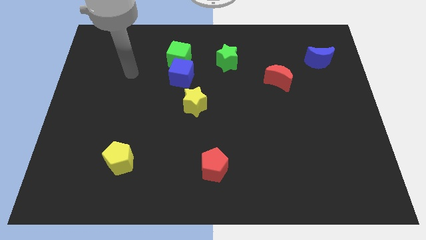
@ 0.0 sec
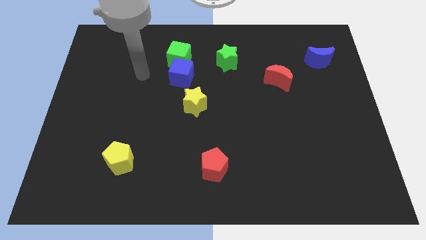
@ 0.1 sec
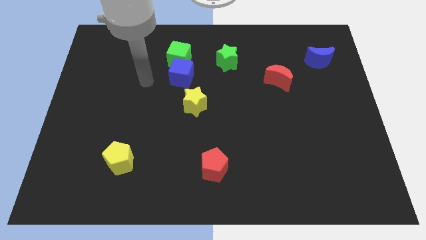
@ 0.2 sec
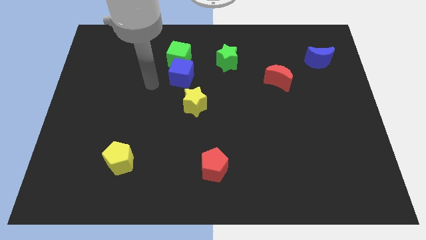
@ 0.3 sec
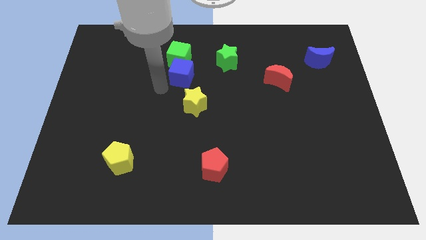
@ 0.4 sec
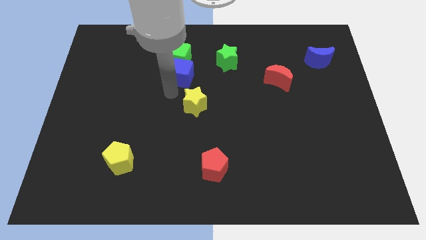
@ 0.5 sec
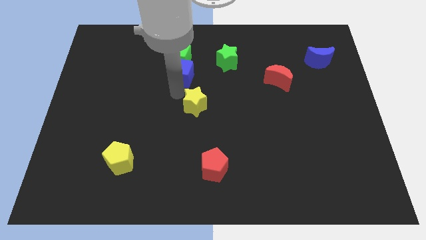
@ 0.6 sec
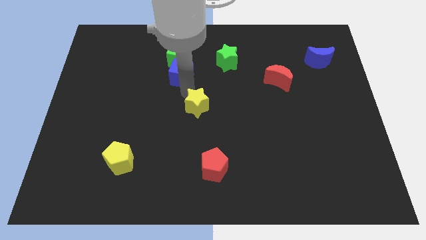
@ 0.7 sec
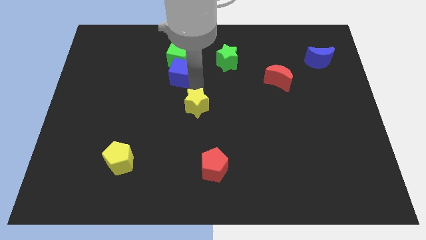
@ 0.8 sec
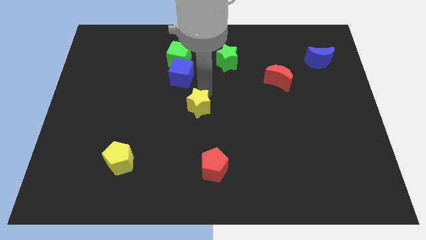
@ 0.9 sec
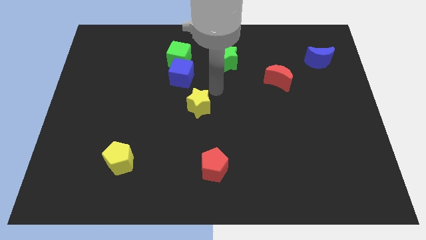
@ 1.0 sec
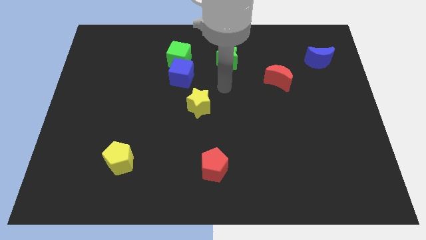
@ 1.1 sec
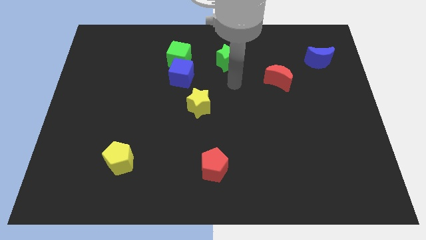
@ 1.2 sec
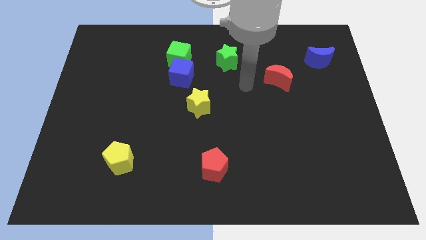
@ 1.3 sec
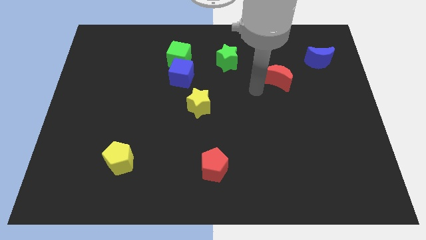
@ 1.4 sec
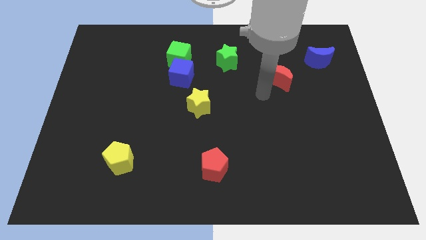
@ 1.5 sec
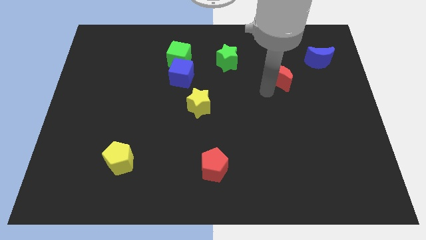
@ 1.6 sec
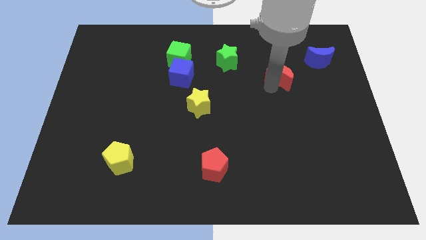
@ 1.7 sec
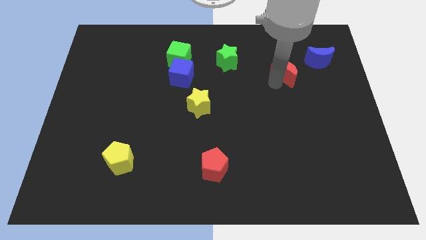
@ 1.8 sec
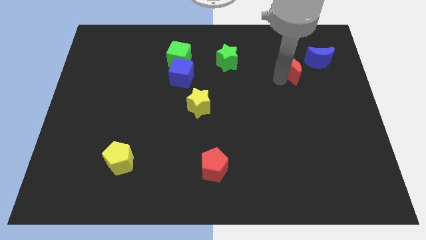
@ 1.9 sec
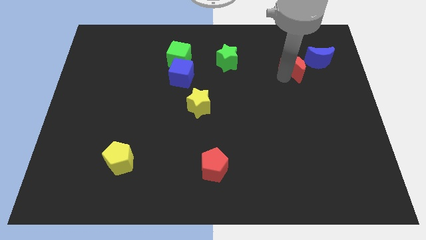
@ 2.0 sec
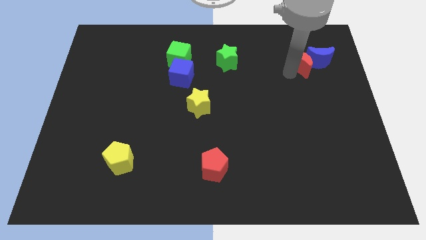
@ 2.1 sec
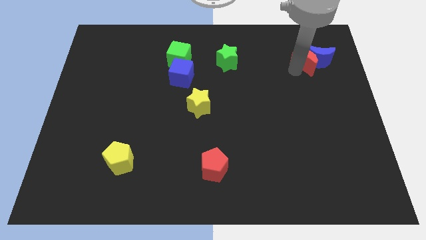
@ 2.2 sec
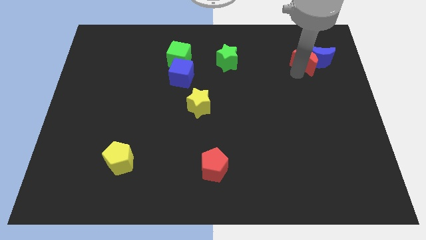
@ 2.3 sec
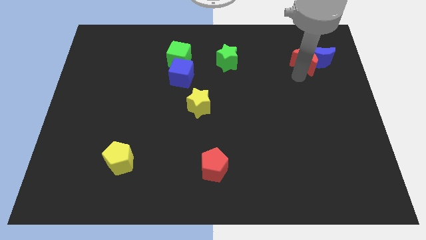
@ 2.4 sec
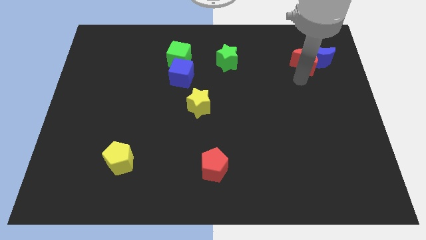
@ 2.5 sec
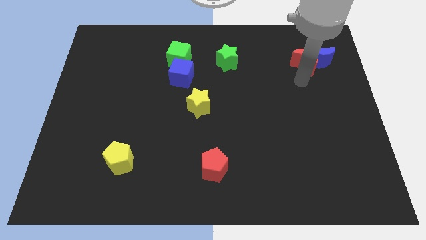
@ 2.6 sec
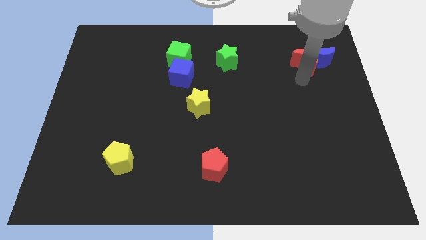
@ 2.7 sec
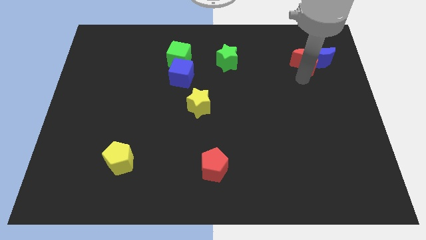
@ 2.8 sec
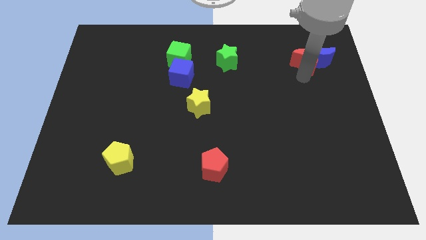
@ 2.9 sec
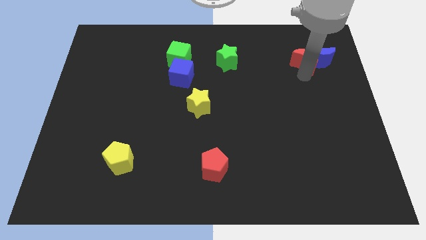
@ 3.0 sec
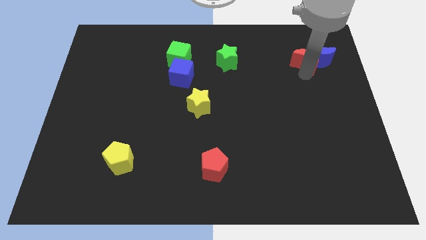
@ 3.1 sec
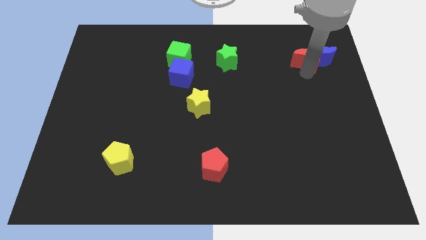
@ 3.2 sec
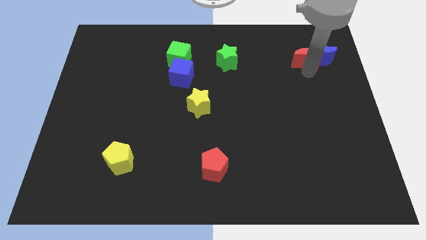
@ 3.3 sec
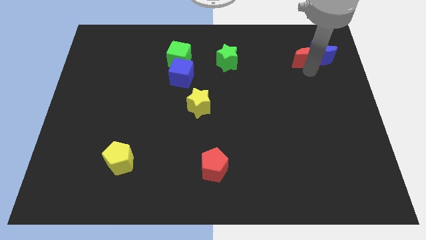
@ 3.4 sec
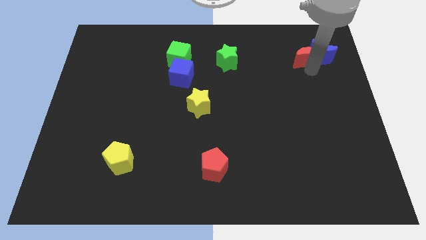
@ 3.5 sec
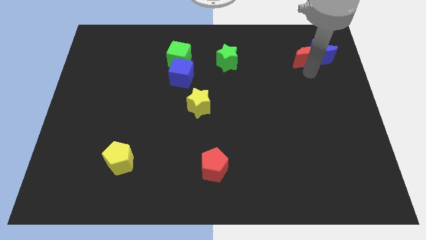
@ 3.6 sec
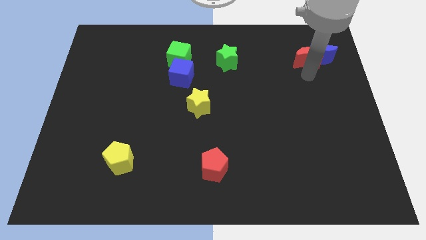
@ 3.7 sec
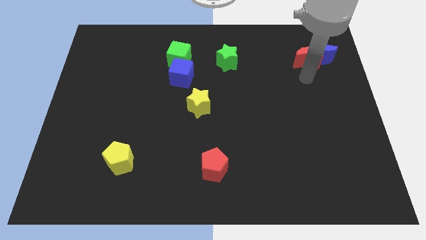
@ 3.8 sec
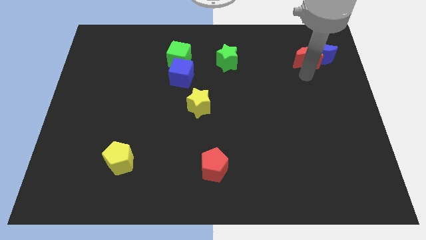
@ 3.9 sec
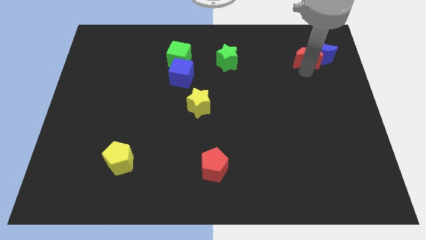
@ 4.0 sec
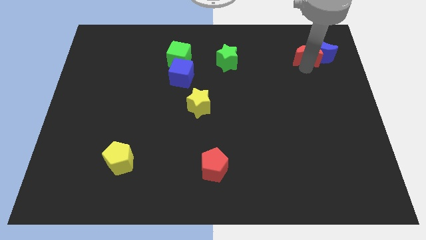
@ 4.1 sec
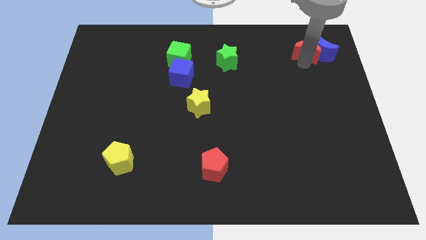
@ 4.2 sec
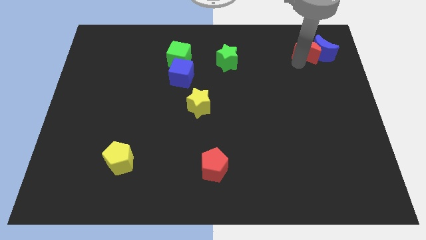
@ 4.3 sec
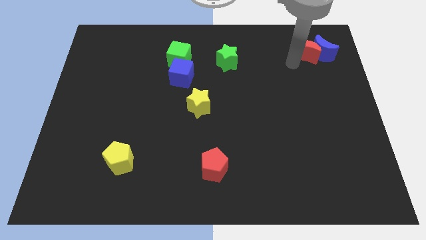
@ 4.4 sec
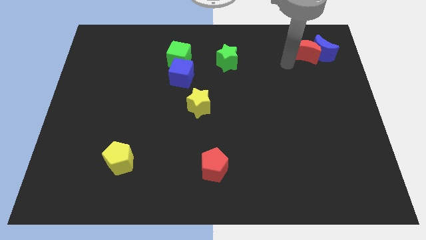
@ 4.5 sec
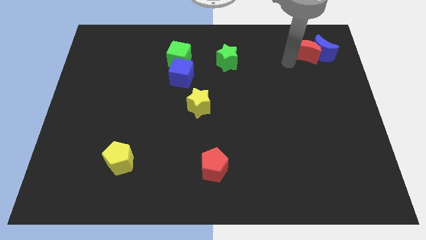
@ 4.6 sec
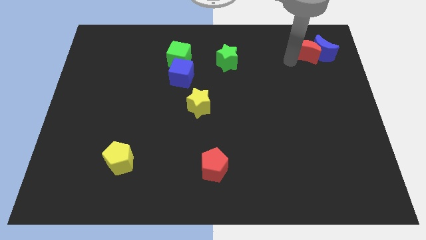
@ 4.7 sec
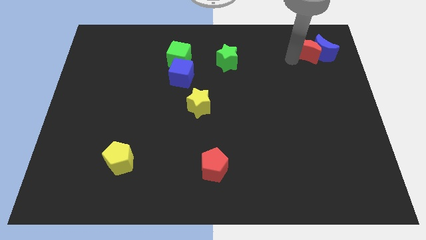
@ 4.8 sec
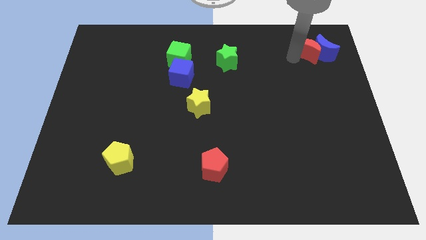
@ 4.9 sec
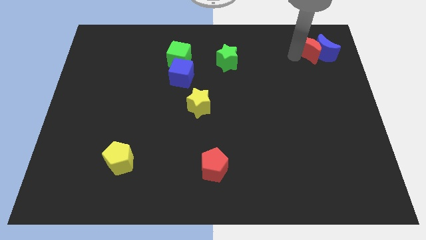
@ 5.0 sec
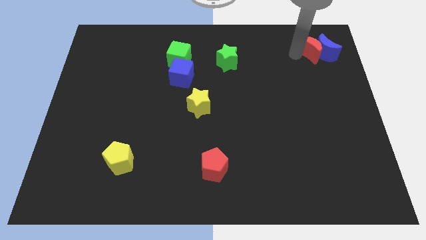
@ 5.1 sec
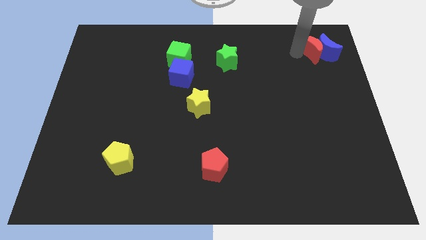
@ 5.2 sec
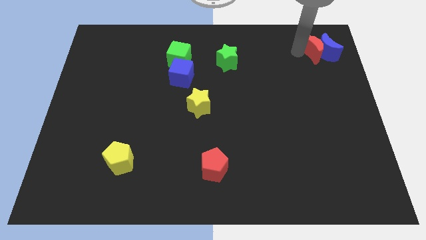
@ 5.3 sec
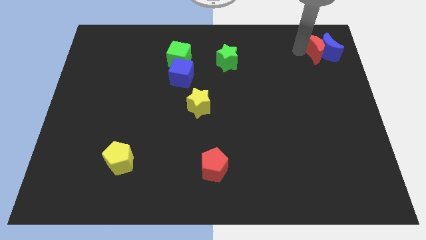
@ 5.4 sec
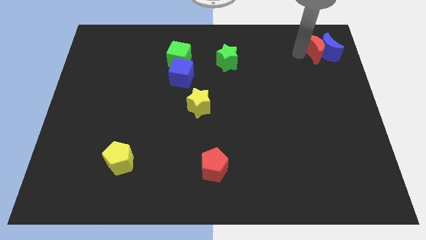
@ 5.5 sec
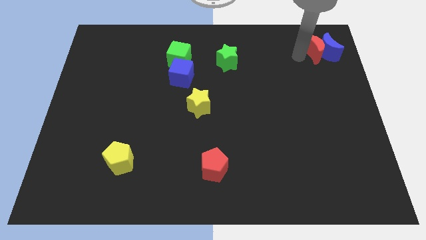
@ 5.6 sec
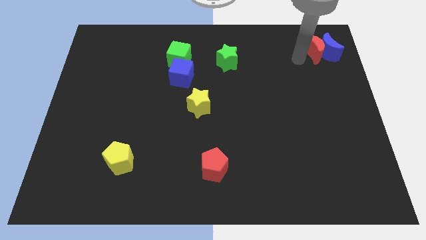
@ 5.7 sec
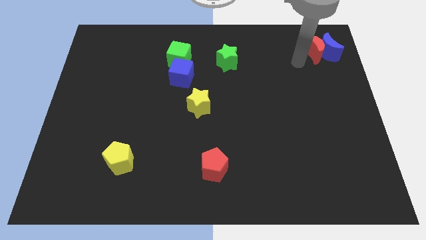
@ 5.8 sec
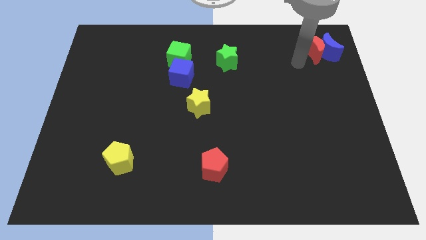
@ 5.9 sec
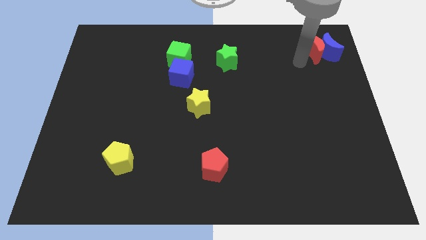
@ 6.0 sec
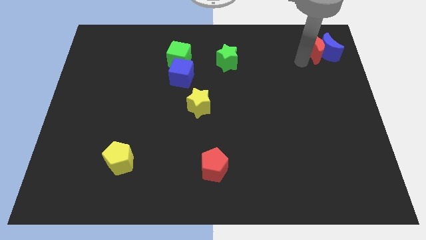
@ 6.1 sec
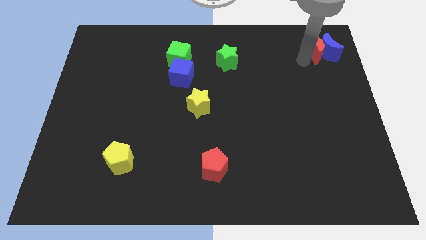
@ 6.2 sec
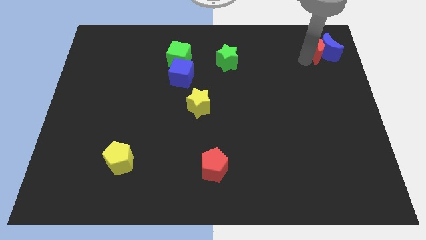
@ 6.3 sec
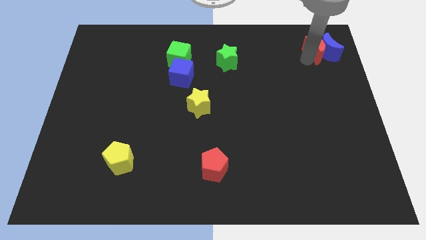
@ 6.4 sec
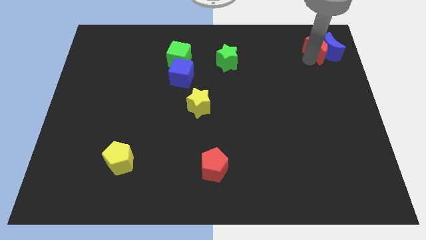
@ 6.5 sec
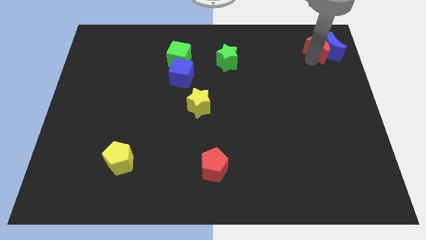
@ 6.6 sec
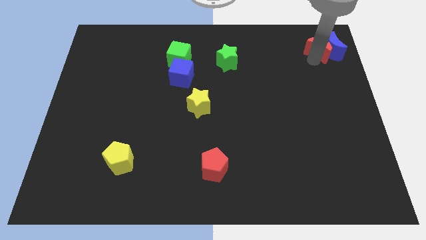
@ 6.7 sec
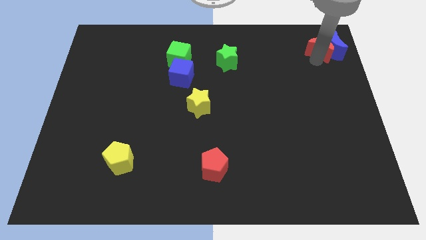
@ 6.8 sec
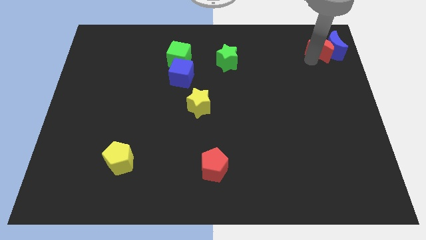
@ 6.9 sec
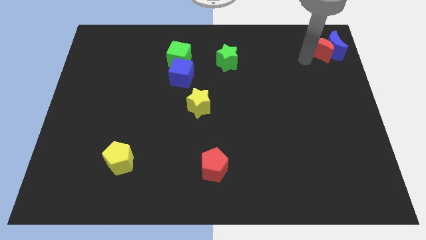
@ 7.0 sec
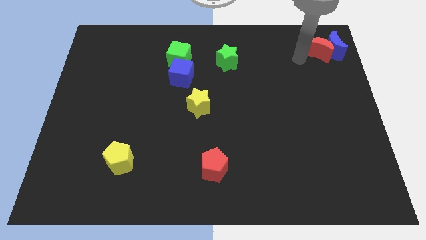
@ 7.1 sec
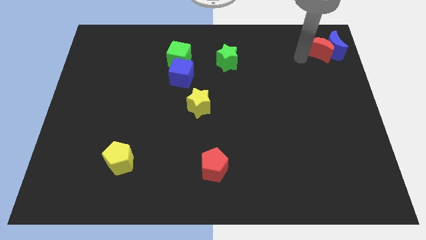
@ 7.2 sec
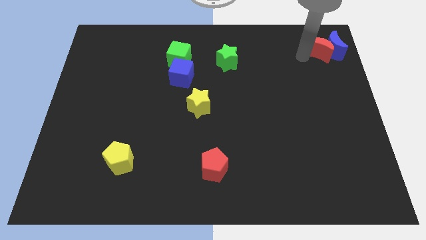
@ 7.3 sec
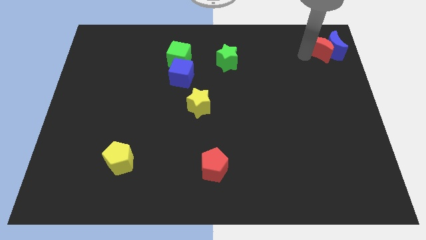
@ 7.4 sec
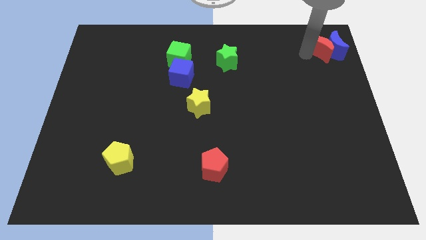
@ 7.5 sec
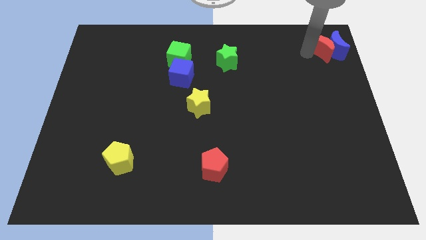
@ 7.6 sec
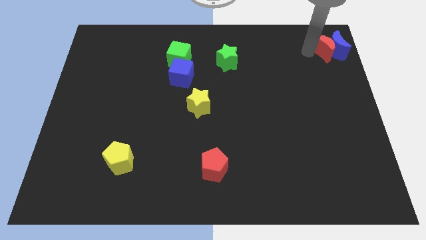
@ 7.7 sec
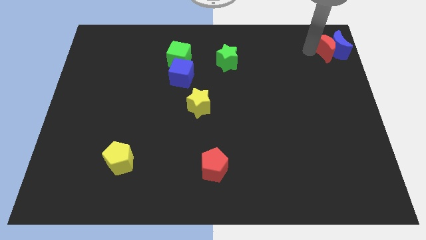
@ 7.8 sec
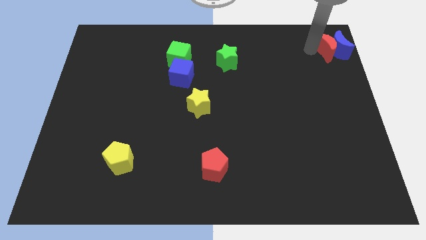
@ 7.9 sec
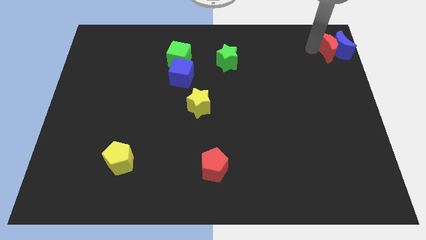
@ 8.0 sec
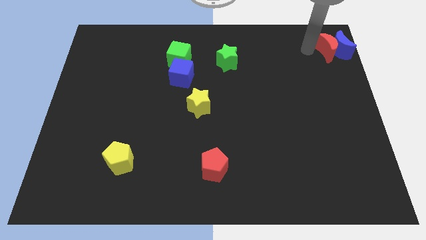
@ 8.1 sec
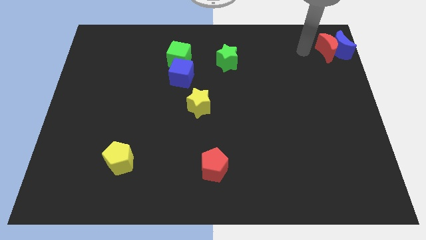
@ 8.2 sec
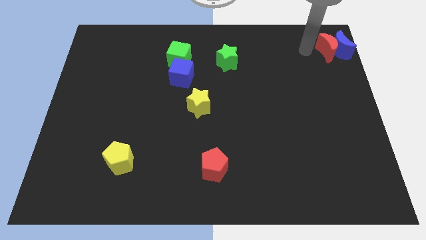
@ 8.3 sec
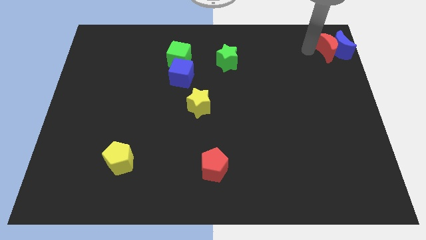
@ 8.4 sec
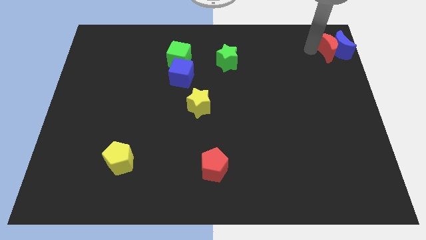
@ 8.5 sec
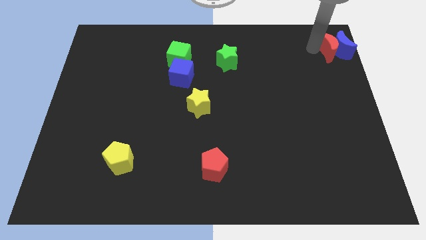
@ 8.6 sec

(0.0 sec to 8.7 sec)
put the red moon to the top right corner
